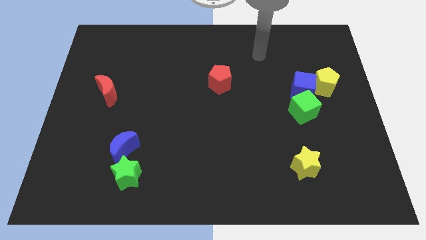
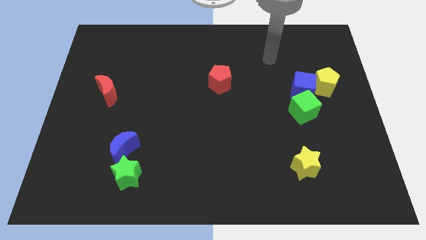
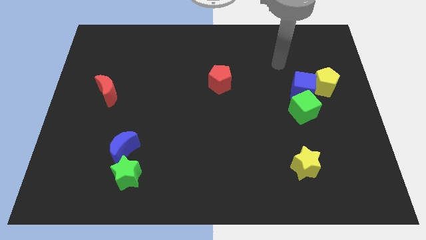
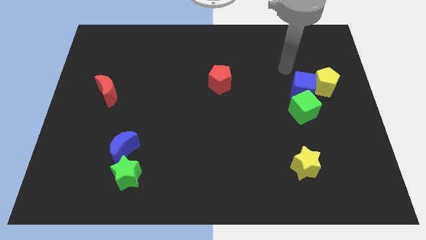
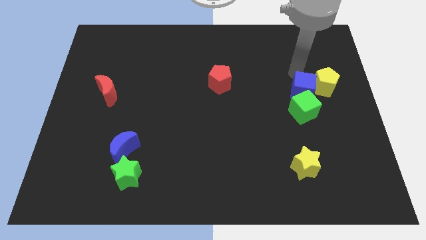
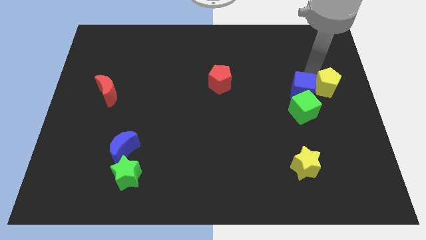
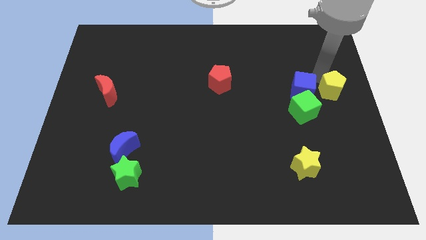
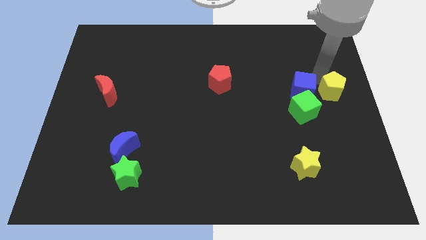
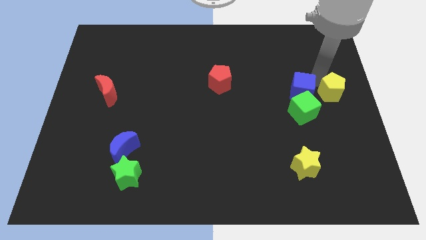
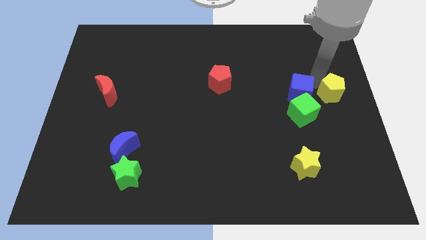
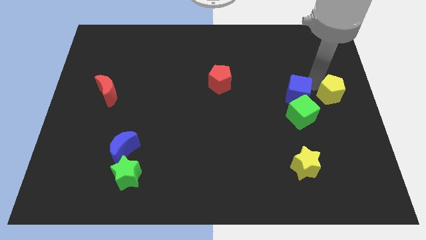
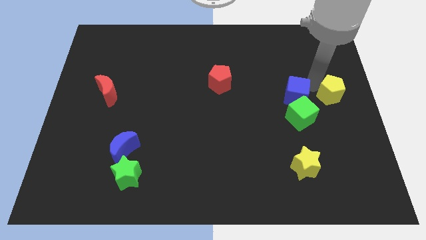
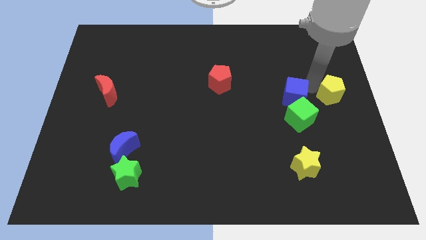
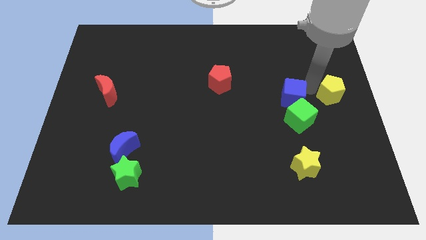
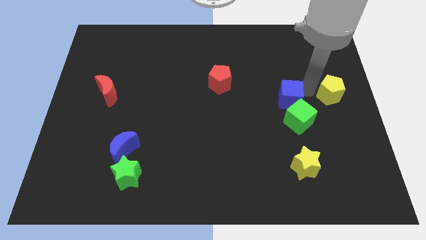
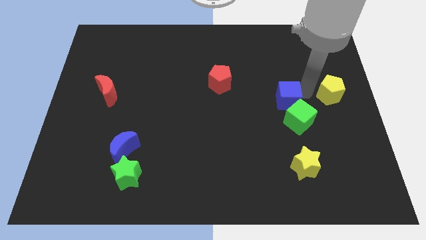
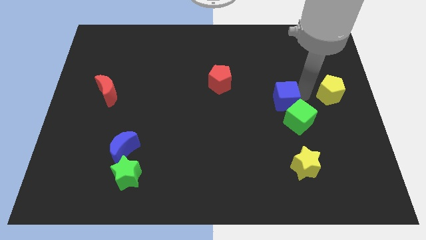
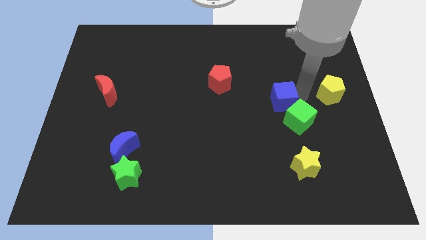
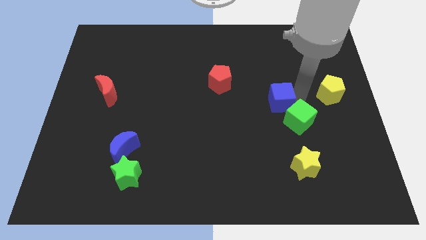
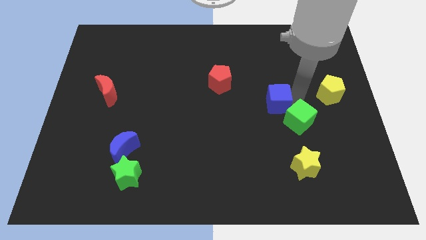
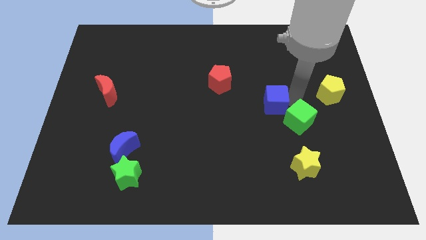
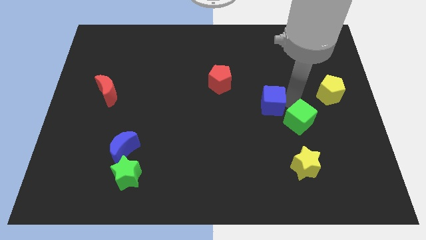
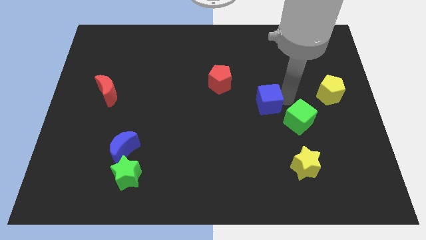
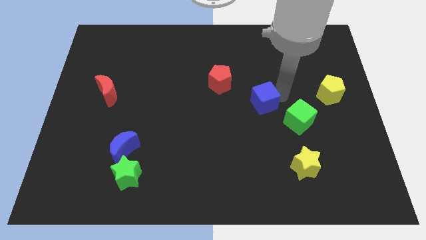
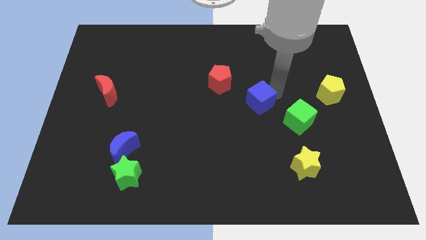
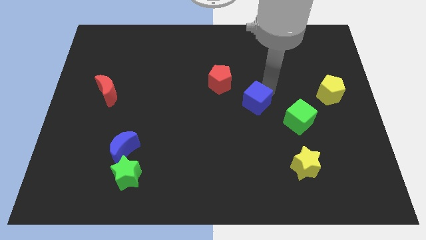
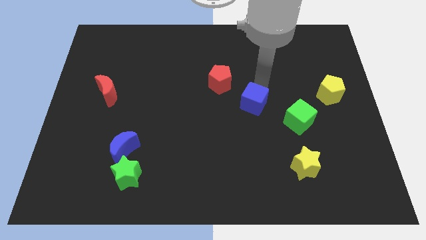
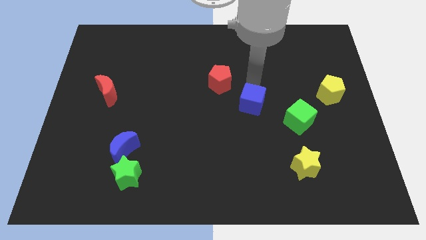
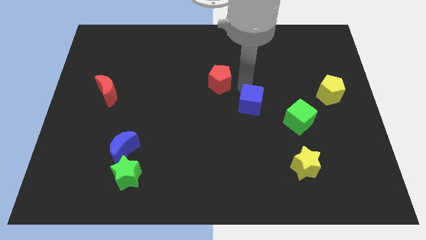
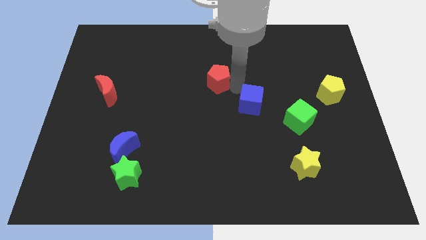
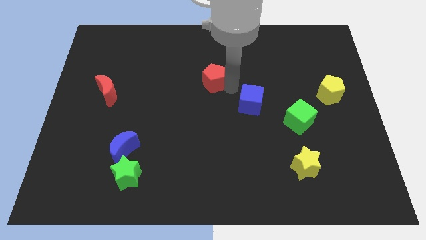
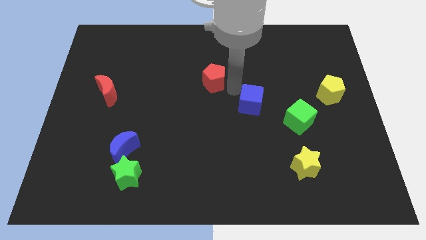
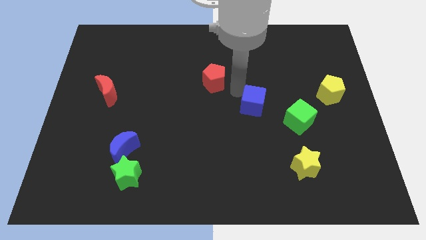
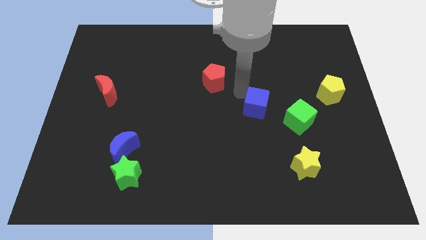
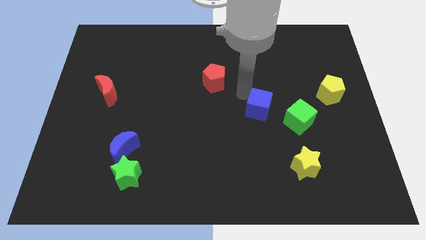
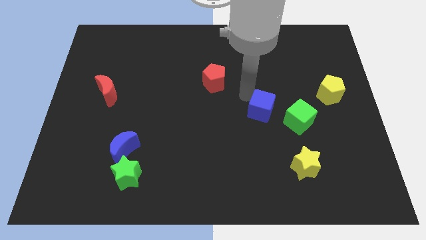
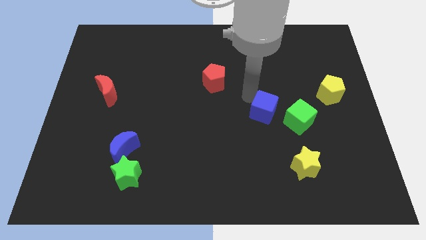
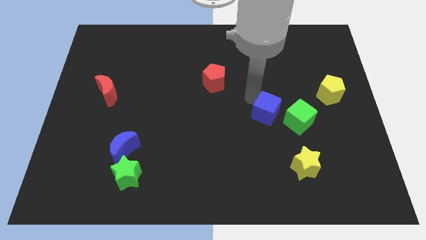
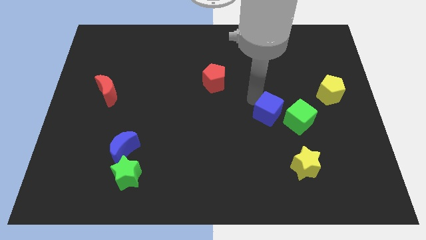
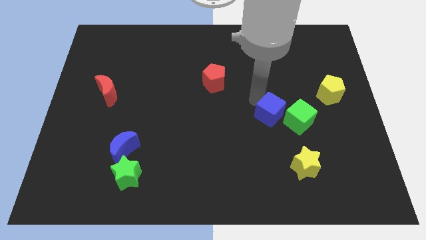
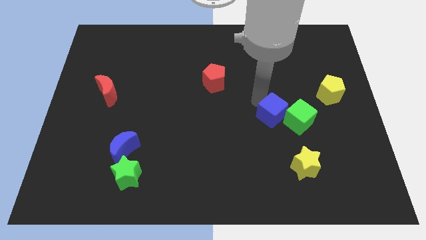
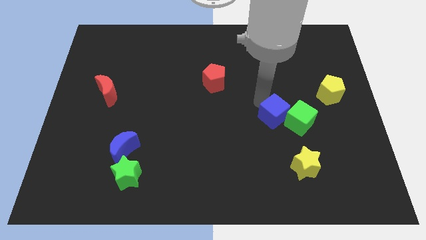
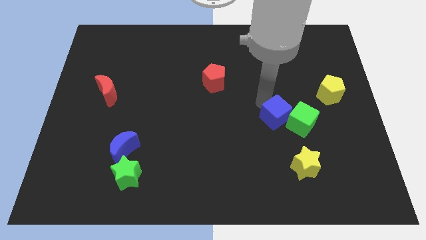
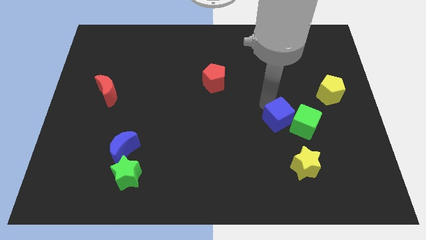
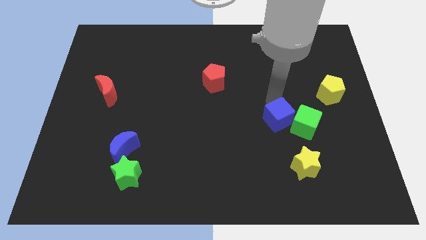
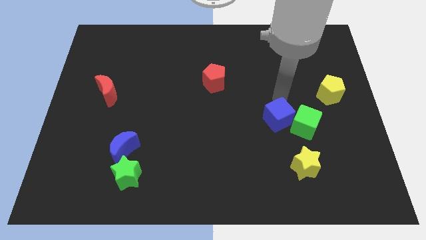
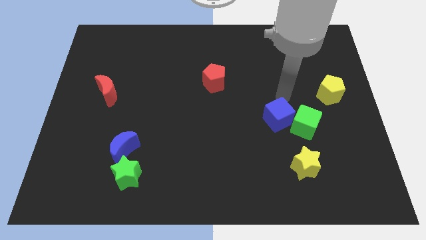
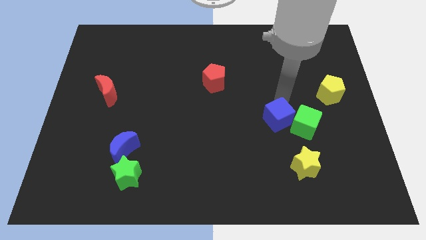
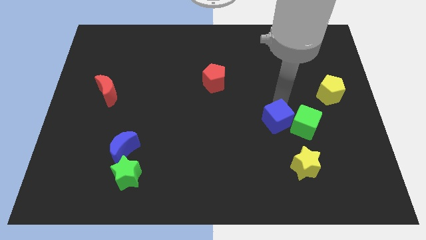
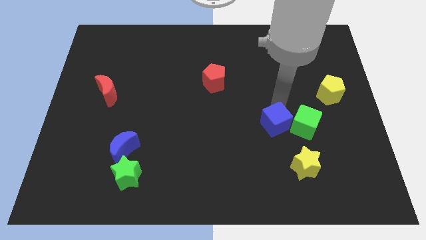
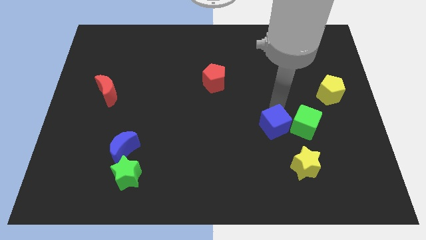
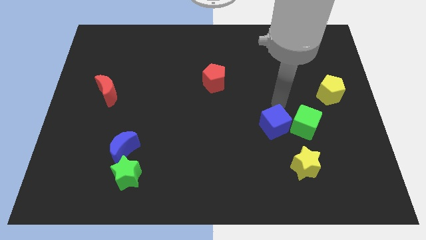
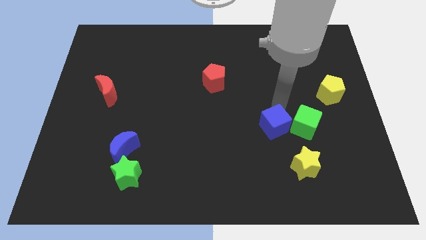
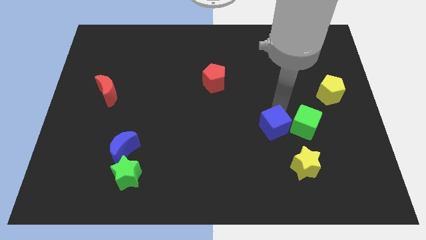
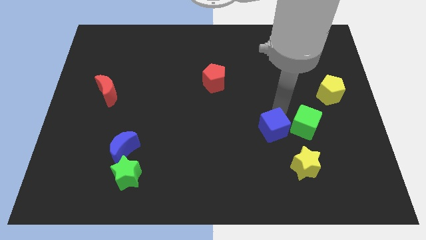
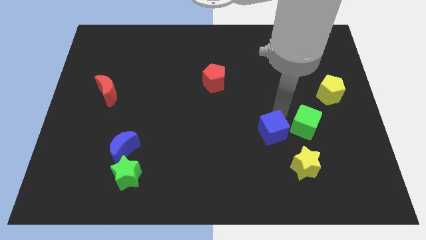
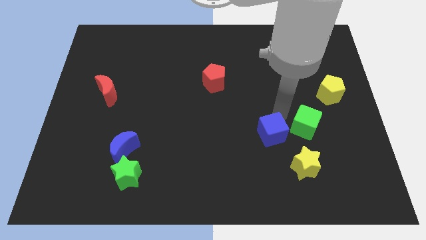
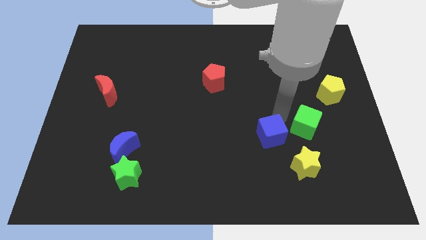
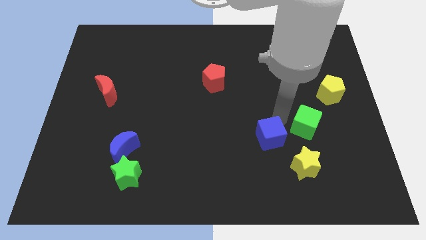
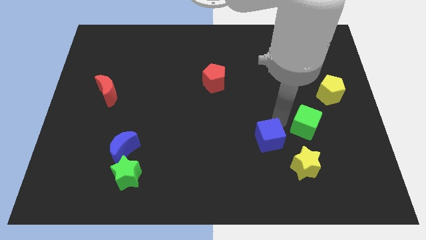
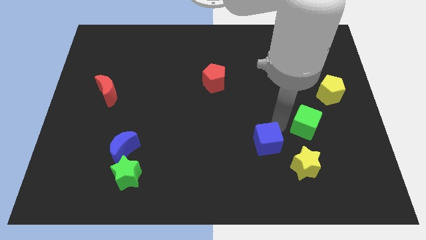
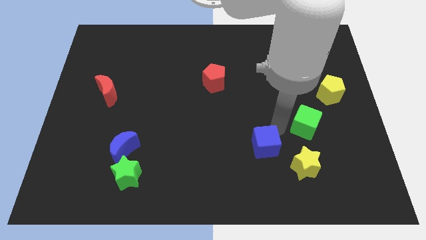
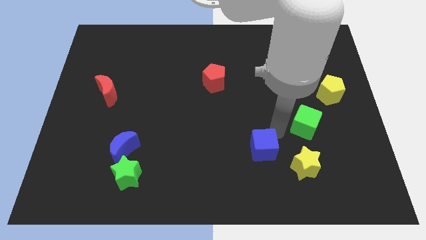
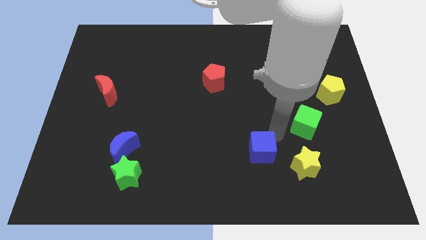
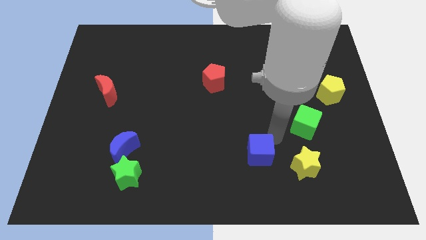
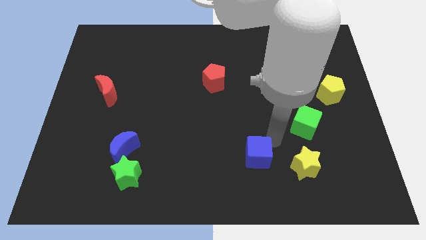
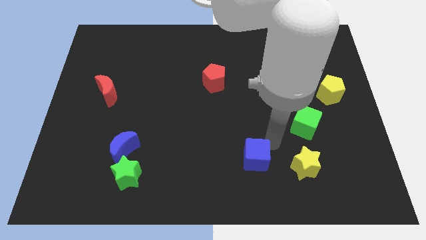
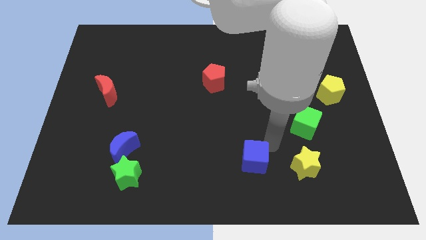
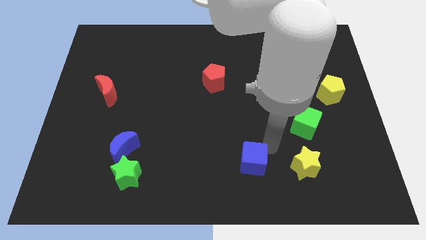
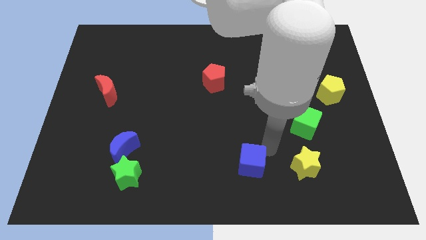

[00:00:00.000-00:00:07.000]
push the blue cube to the bottom
